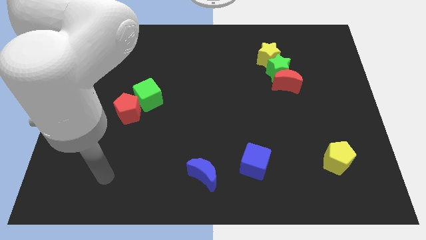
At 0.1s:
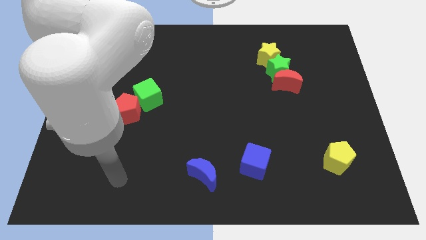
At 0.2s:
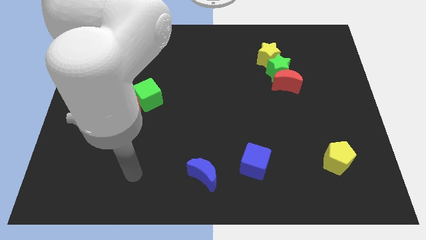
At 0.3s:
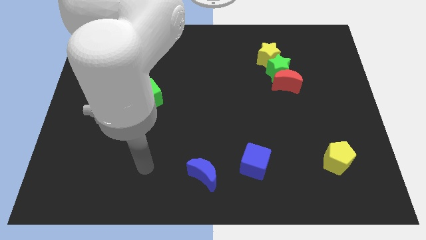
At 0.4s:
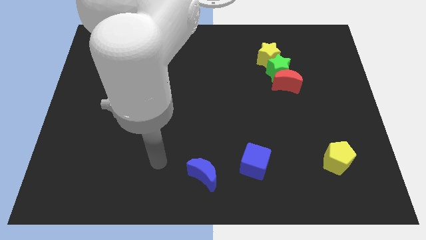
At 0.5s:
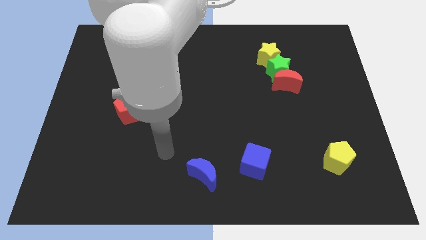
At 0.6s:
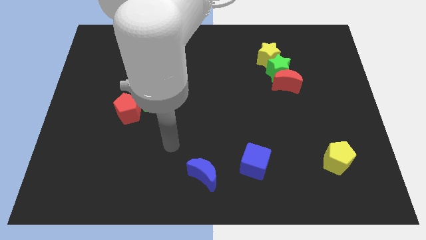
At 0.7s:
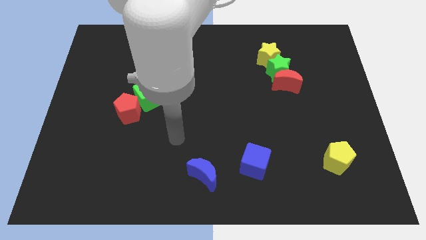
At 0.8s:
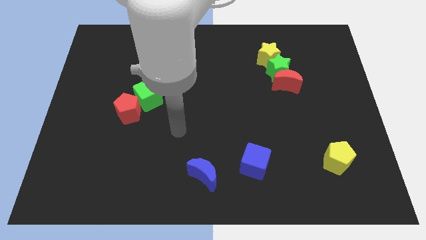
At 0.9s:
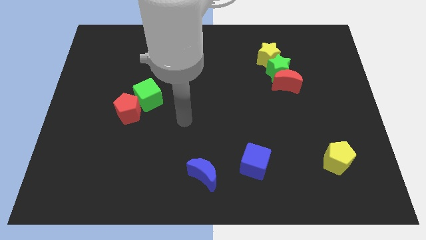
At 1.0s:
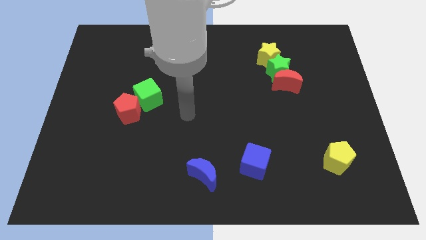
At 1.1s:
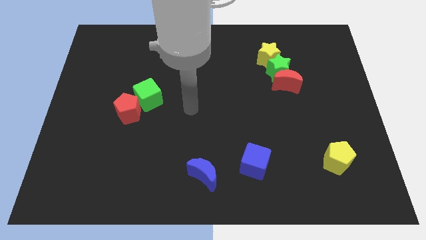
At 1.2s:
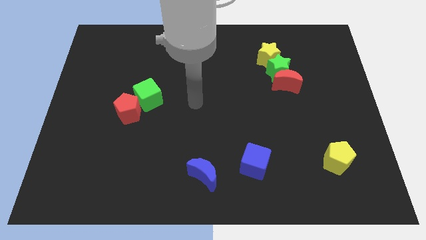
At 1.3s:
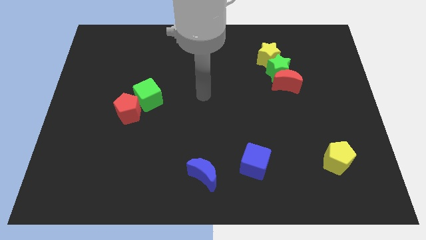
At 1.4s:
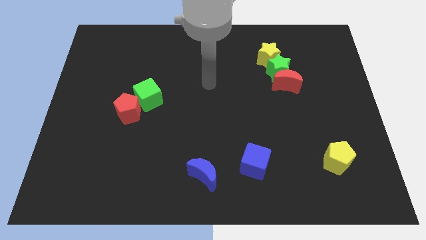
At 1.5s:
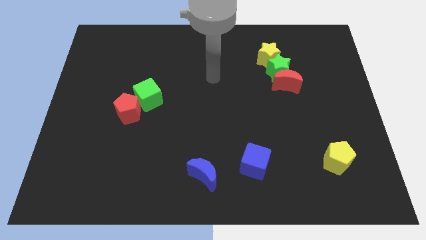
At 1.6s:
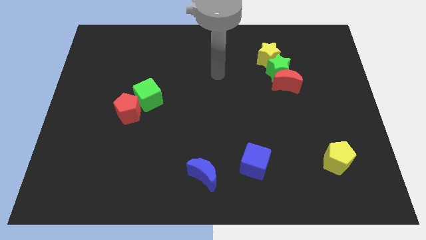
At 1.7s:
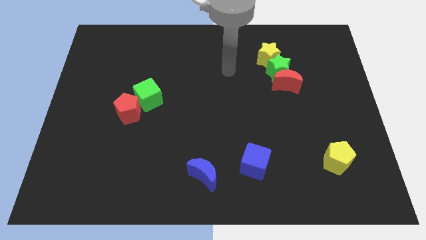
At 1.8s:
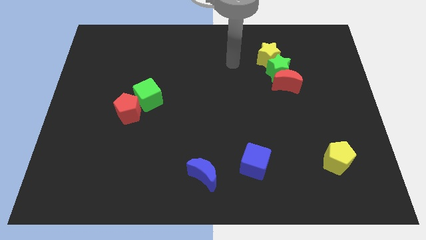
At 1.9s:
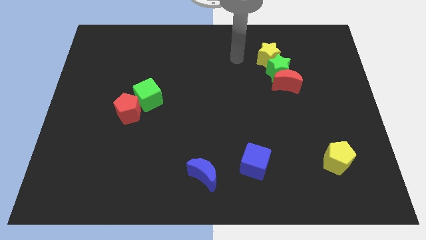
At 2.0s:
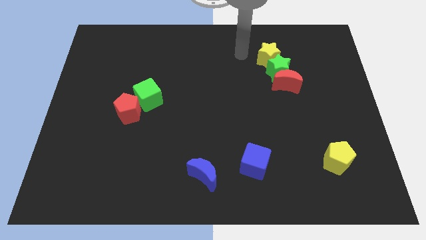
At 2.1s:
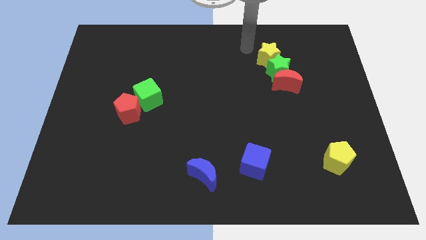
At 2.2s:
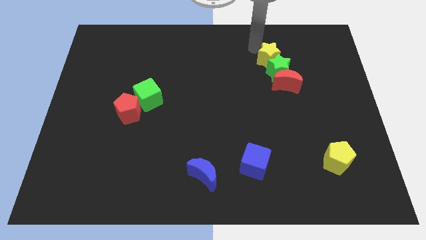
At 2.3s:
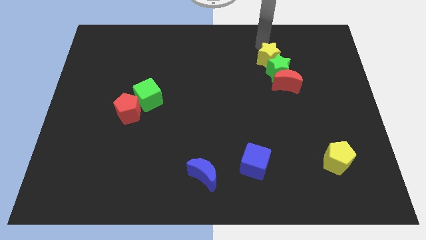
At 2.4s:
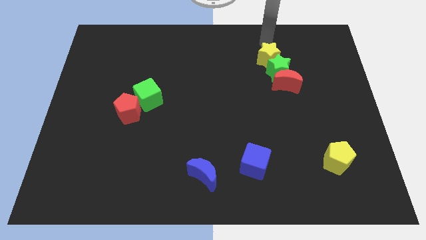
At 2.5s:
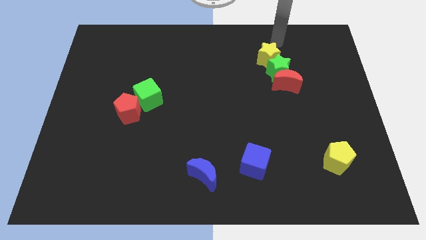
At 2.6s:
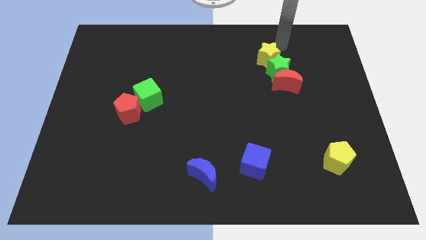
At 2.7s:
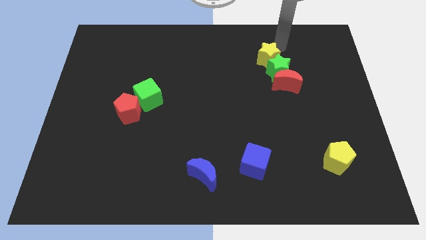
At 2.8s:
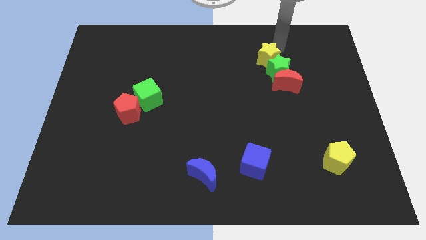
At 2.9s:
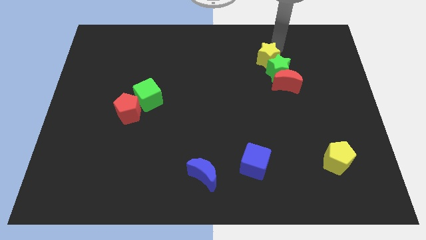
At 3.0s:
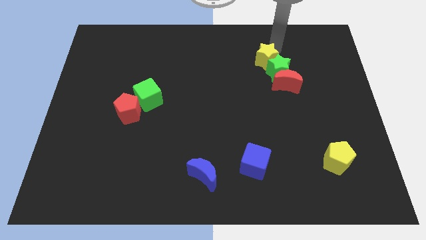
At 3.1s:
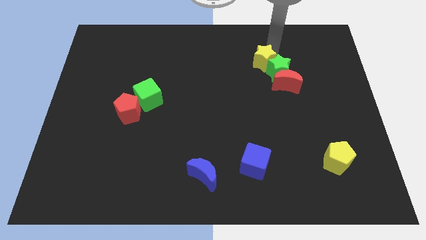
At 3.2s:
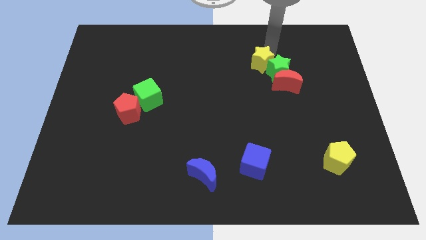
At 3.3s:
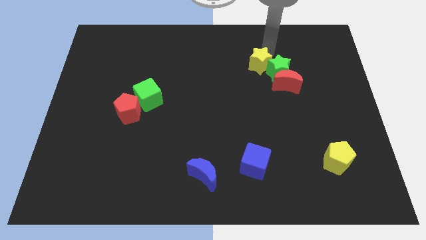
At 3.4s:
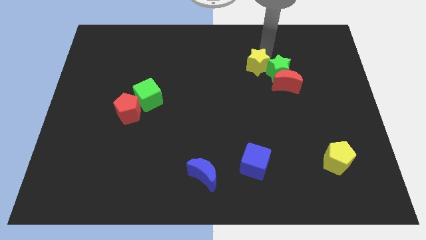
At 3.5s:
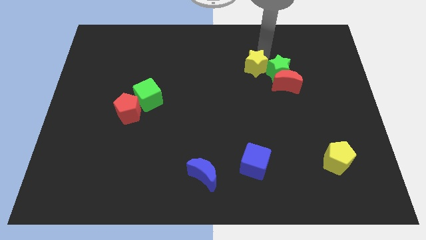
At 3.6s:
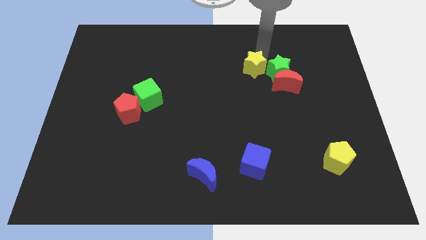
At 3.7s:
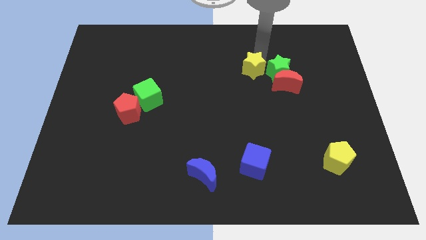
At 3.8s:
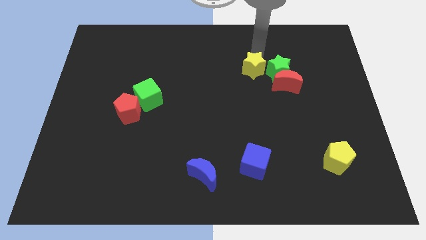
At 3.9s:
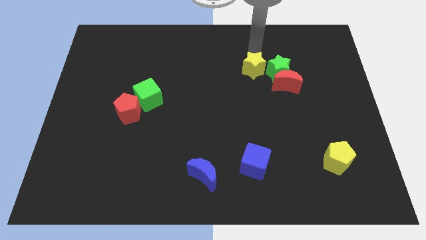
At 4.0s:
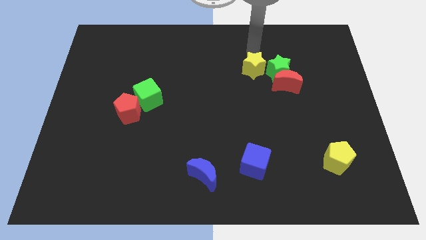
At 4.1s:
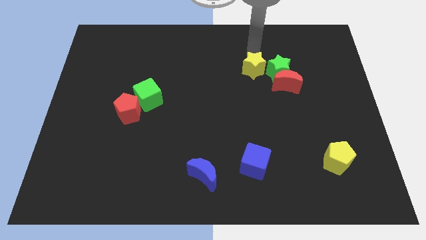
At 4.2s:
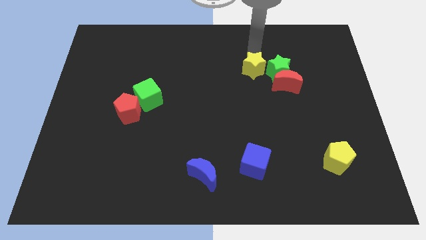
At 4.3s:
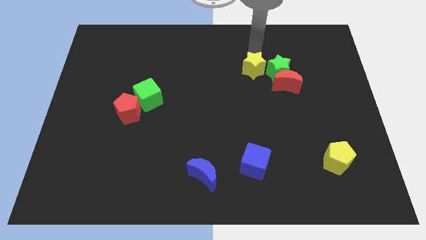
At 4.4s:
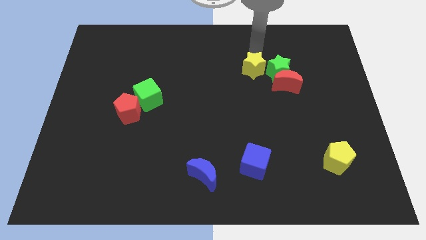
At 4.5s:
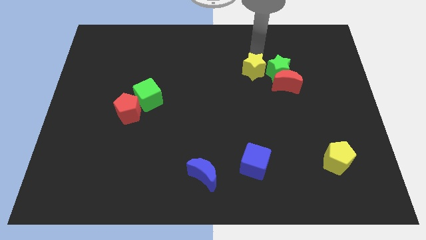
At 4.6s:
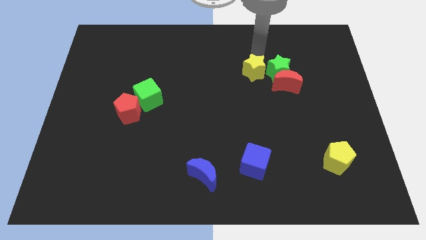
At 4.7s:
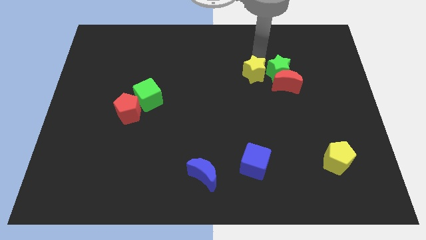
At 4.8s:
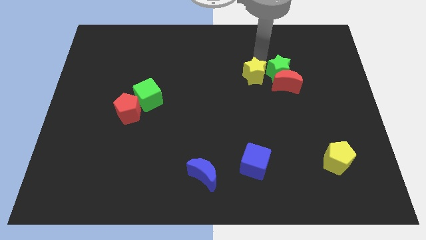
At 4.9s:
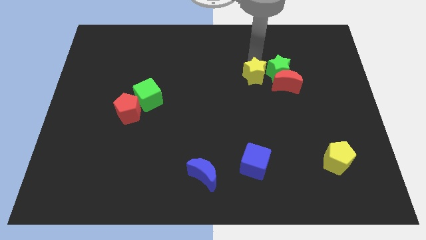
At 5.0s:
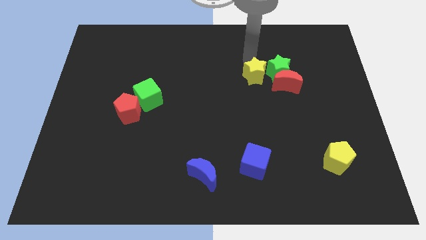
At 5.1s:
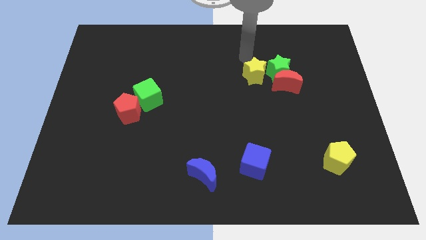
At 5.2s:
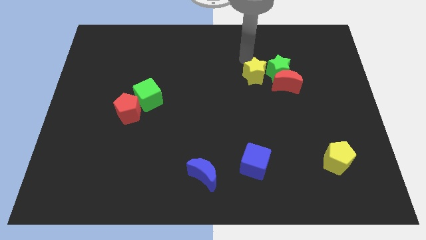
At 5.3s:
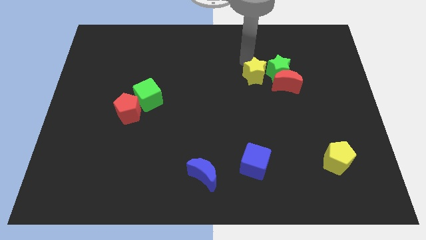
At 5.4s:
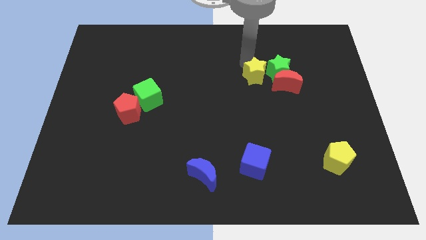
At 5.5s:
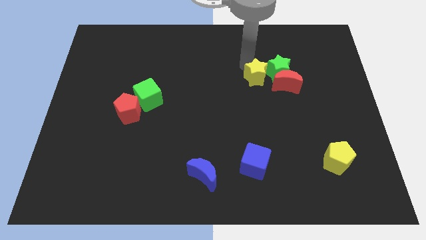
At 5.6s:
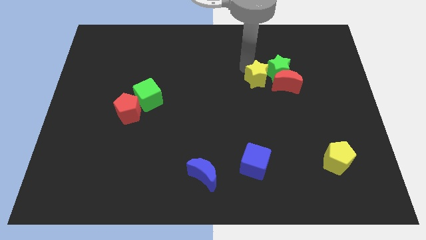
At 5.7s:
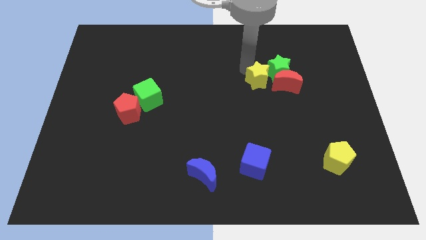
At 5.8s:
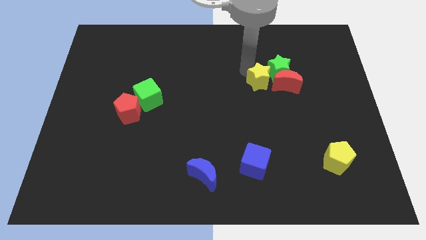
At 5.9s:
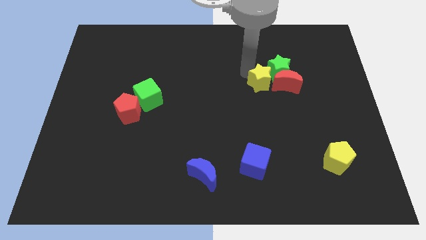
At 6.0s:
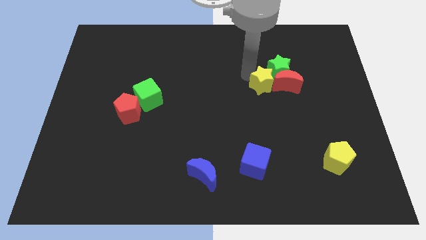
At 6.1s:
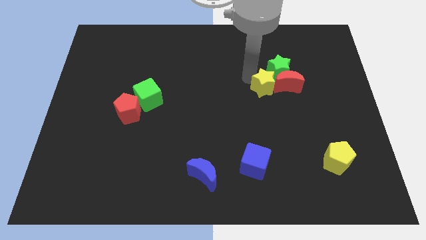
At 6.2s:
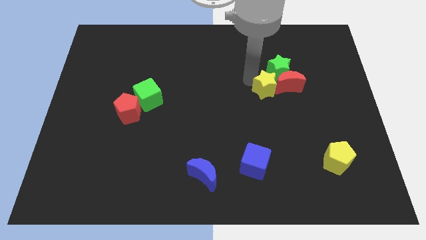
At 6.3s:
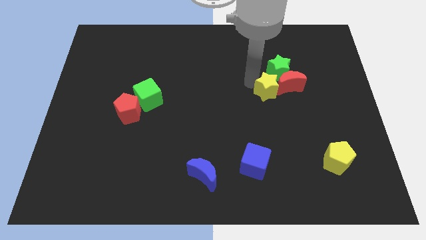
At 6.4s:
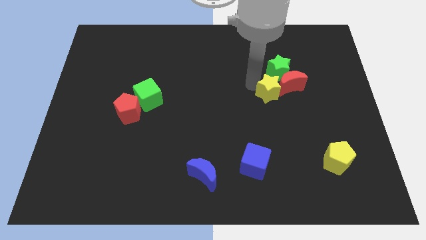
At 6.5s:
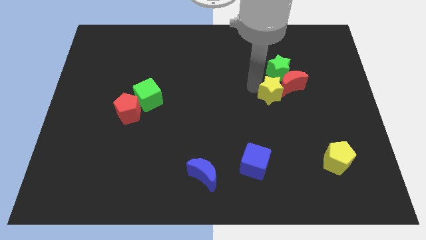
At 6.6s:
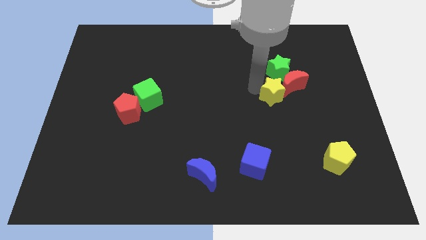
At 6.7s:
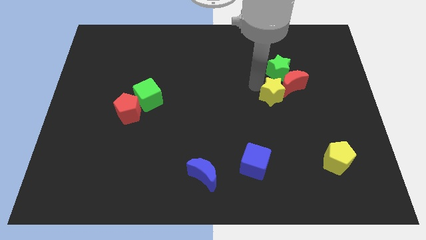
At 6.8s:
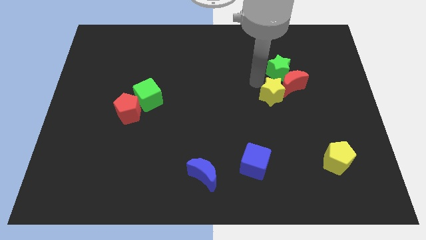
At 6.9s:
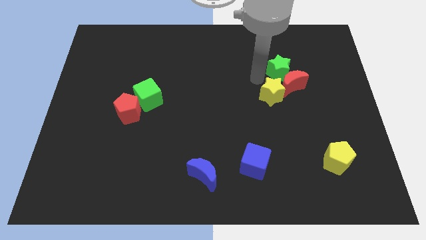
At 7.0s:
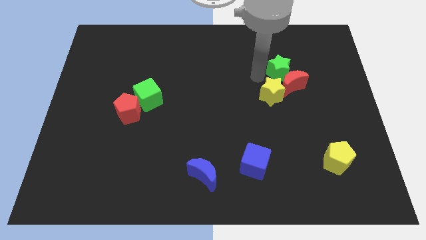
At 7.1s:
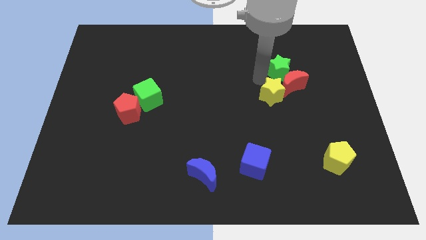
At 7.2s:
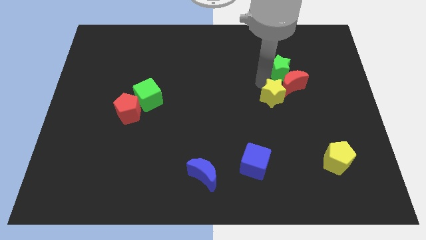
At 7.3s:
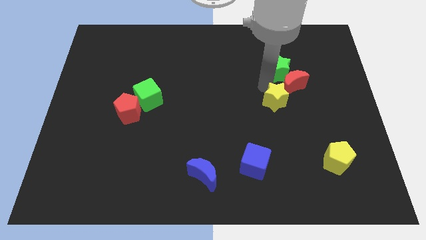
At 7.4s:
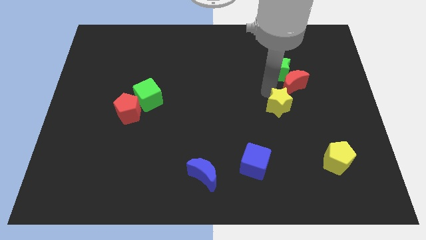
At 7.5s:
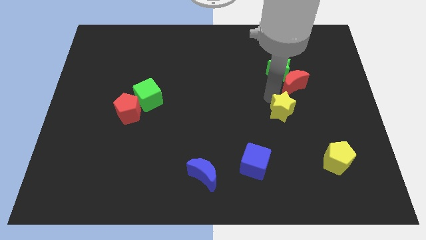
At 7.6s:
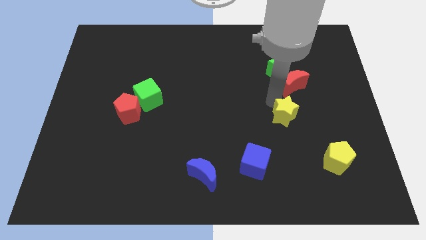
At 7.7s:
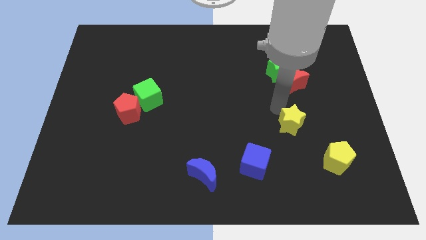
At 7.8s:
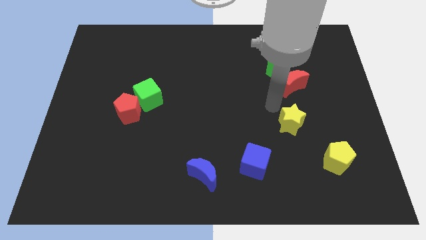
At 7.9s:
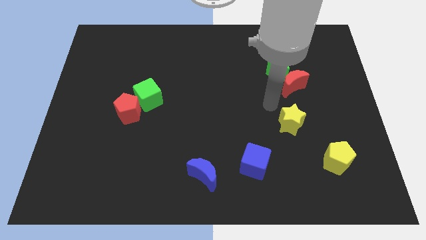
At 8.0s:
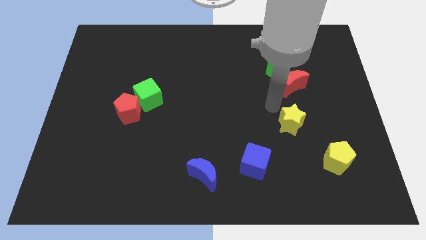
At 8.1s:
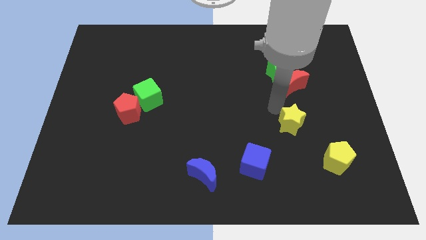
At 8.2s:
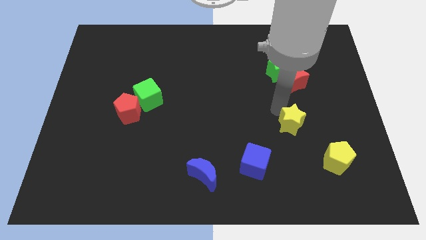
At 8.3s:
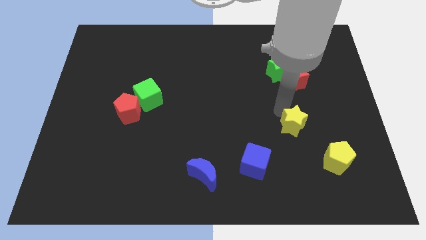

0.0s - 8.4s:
move the yellow star to the top left side of the yellow pentagon
